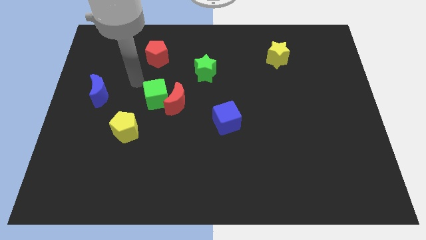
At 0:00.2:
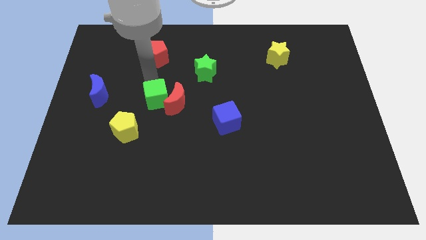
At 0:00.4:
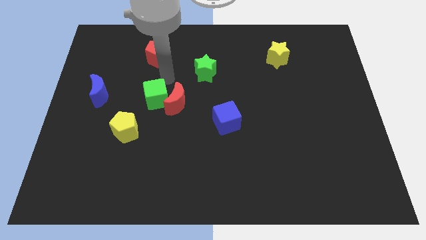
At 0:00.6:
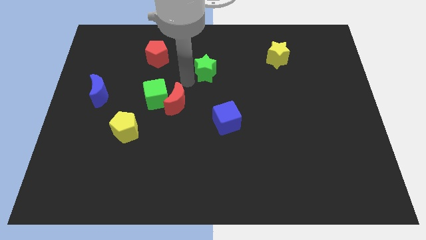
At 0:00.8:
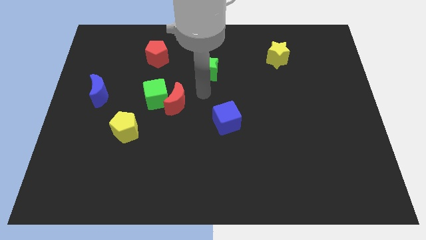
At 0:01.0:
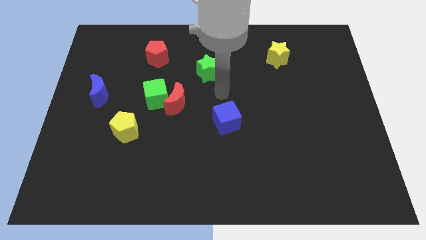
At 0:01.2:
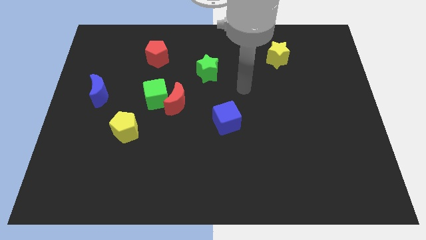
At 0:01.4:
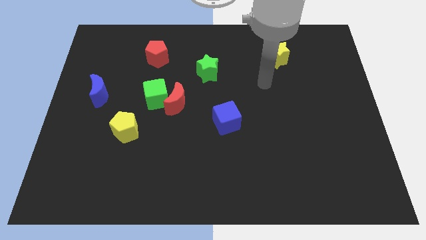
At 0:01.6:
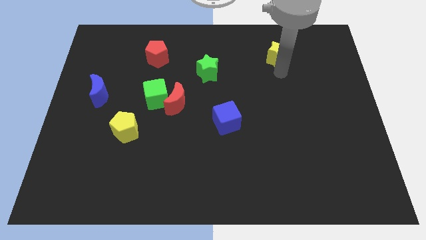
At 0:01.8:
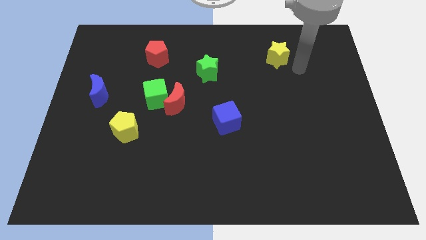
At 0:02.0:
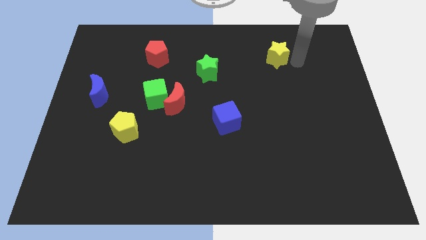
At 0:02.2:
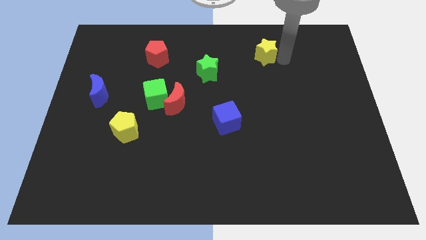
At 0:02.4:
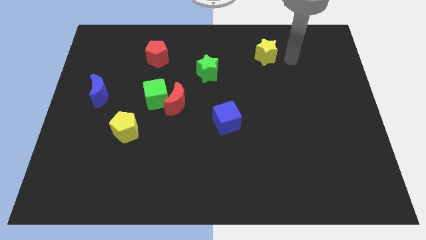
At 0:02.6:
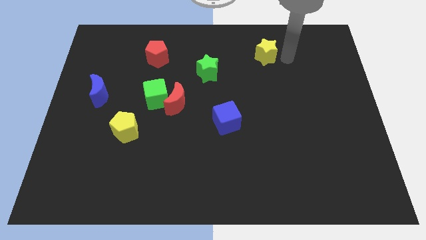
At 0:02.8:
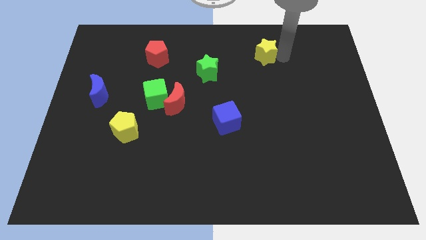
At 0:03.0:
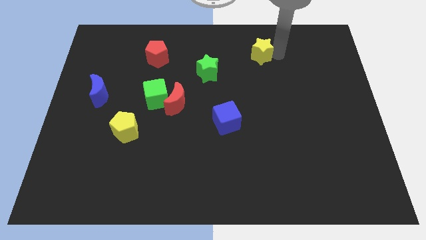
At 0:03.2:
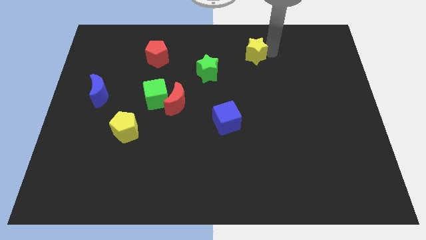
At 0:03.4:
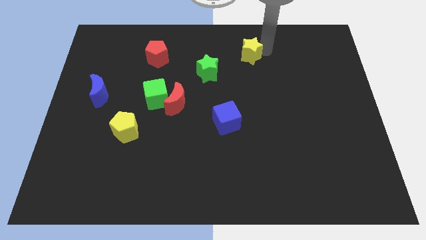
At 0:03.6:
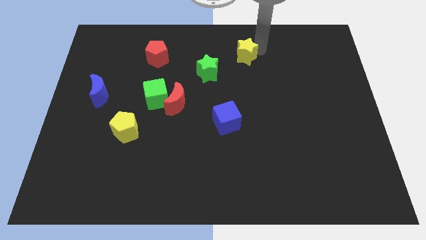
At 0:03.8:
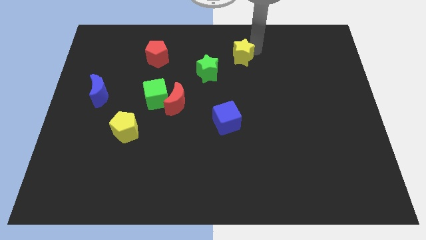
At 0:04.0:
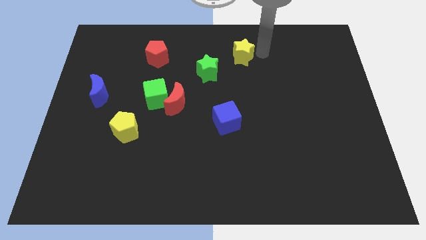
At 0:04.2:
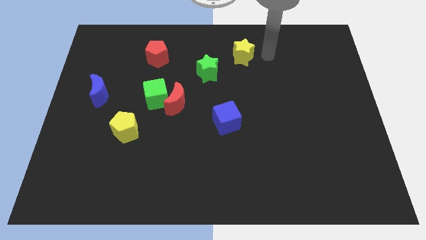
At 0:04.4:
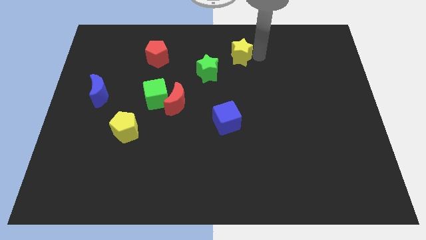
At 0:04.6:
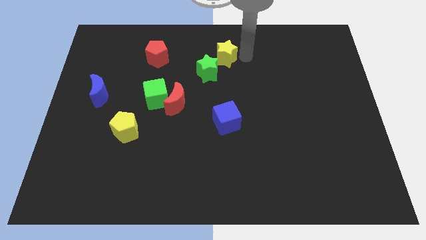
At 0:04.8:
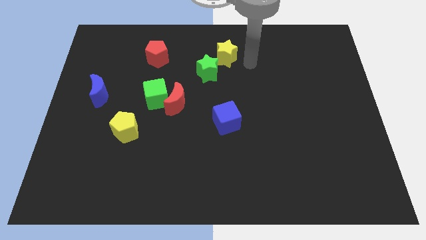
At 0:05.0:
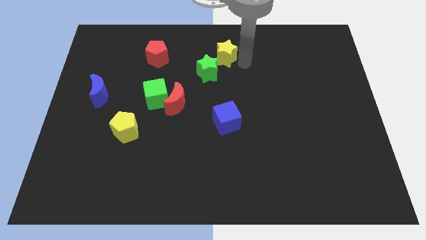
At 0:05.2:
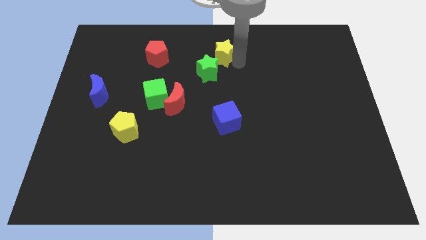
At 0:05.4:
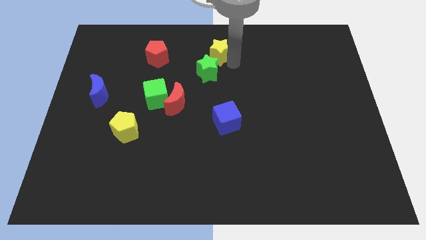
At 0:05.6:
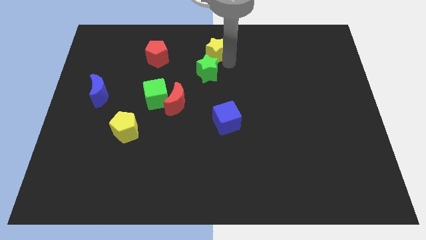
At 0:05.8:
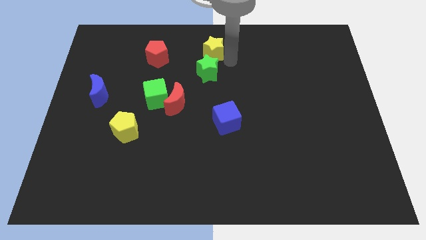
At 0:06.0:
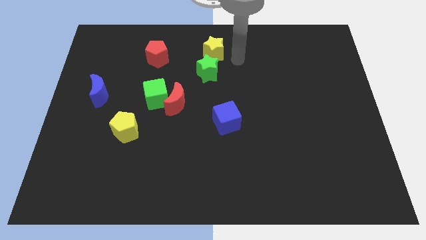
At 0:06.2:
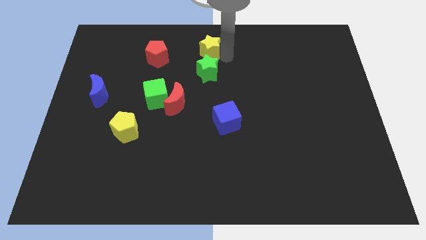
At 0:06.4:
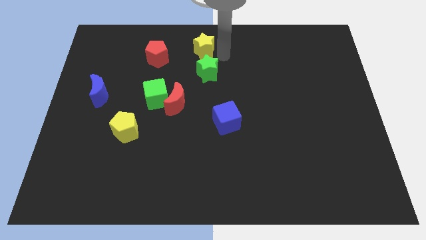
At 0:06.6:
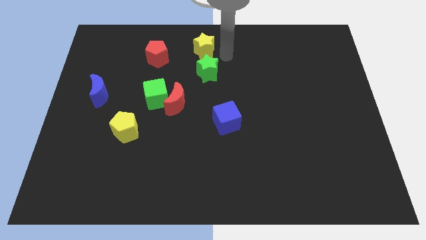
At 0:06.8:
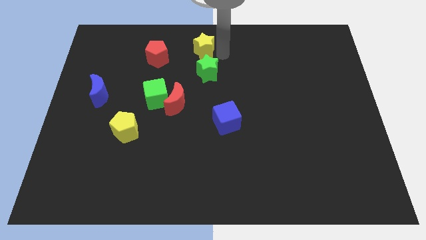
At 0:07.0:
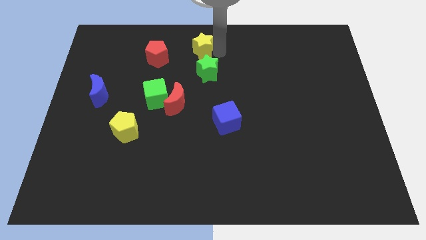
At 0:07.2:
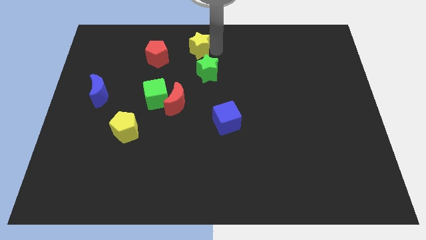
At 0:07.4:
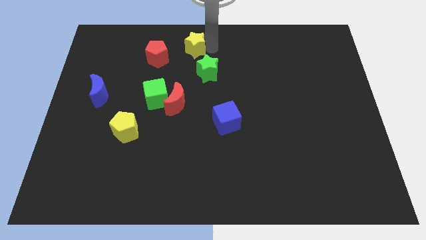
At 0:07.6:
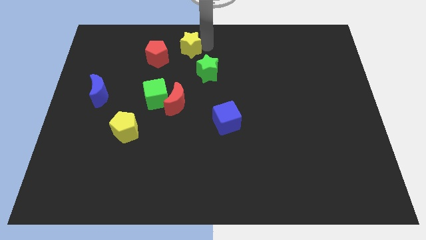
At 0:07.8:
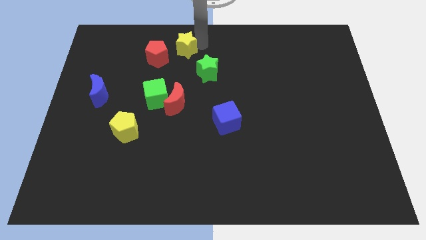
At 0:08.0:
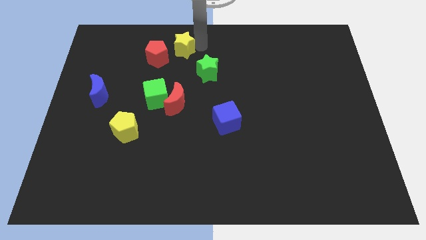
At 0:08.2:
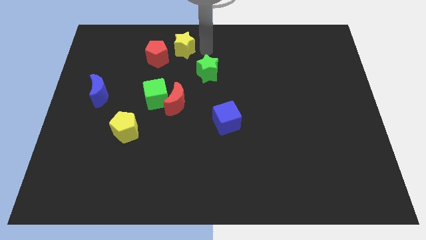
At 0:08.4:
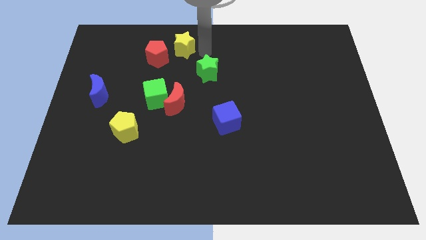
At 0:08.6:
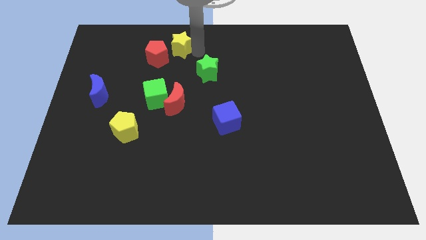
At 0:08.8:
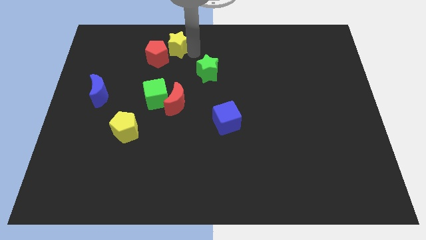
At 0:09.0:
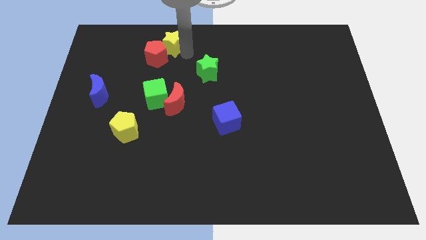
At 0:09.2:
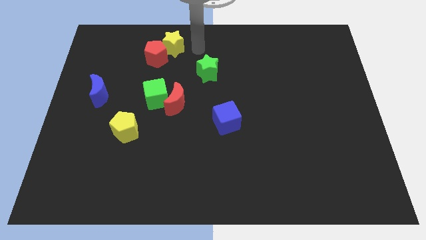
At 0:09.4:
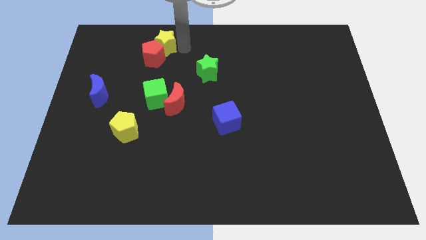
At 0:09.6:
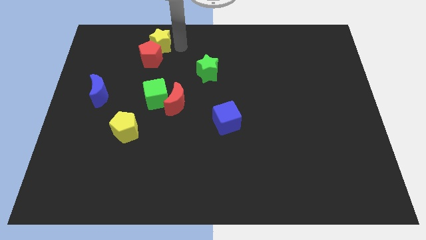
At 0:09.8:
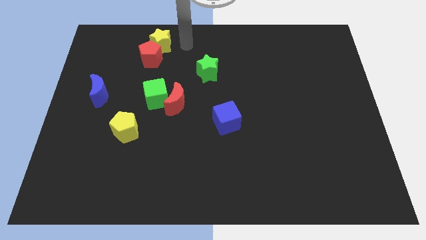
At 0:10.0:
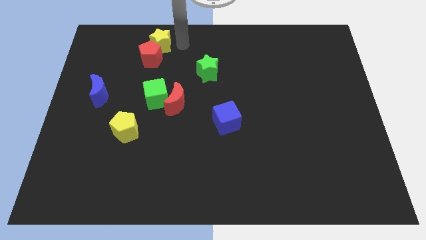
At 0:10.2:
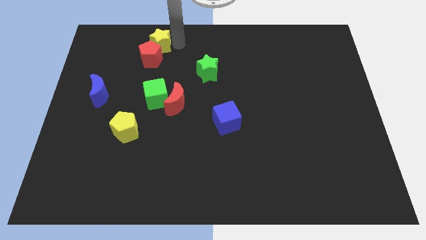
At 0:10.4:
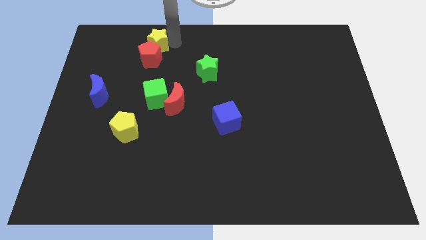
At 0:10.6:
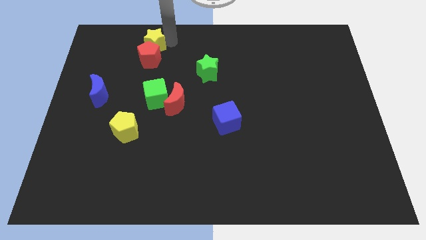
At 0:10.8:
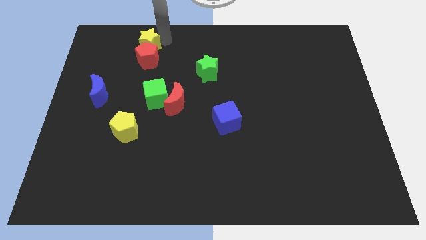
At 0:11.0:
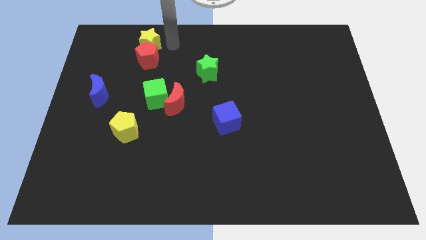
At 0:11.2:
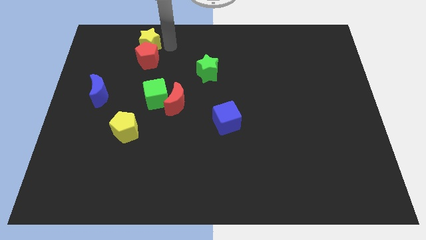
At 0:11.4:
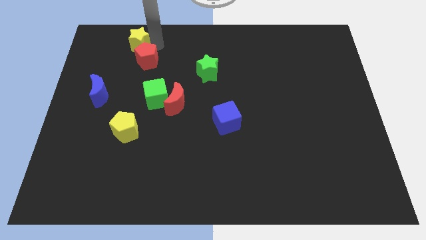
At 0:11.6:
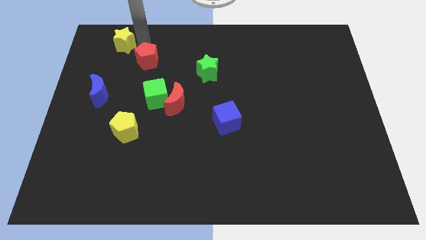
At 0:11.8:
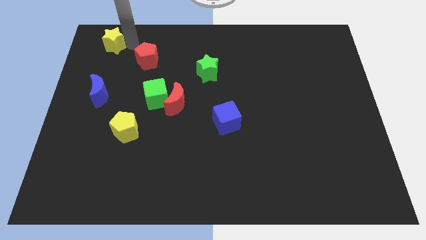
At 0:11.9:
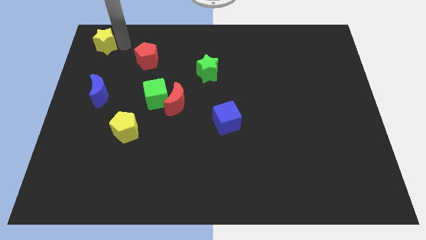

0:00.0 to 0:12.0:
push the yellow star to the upper left corner

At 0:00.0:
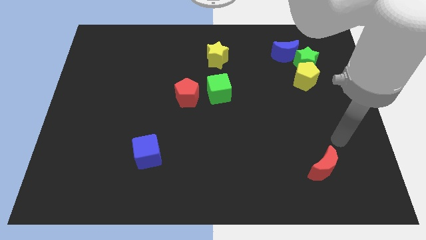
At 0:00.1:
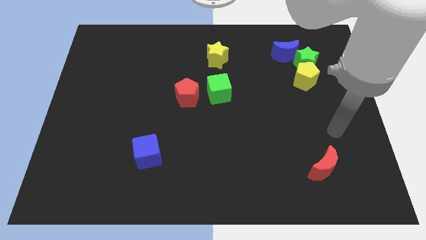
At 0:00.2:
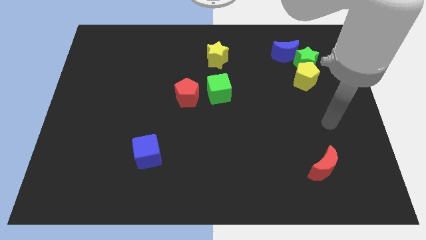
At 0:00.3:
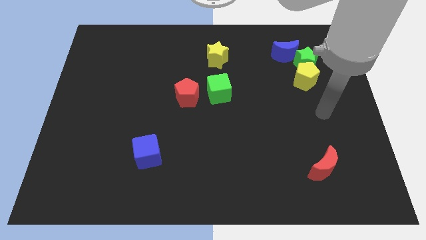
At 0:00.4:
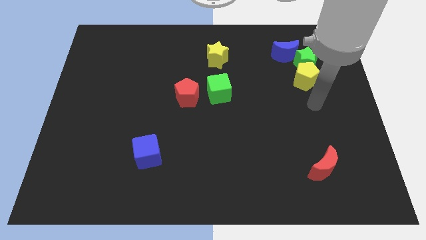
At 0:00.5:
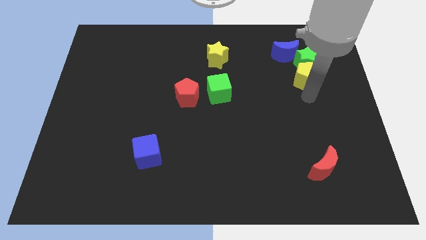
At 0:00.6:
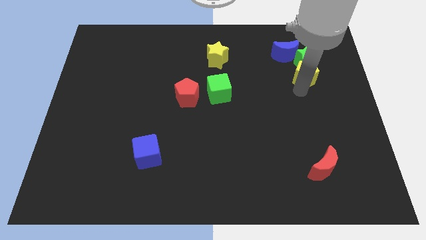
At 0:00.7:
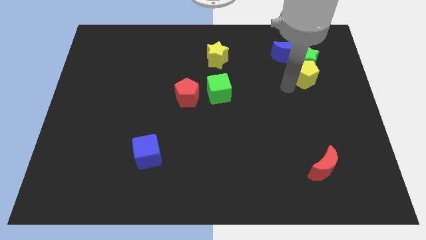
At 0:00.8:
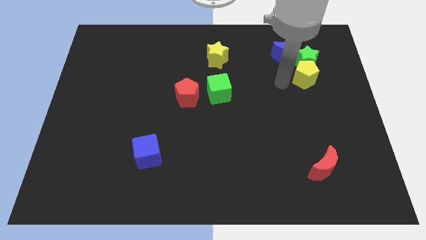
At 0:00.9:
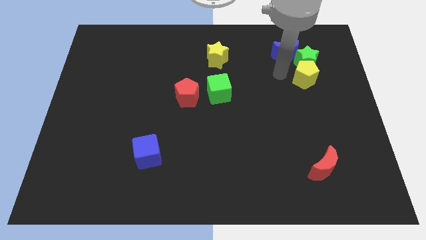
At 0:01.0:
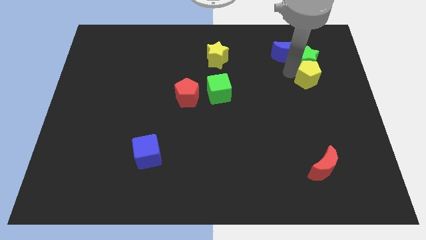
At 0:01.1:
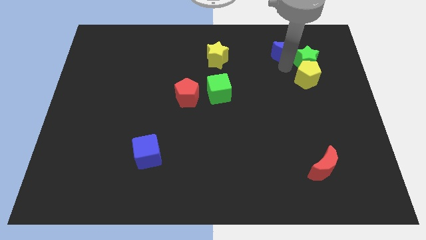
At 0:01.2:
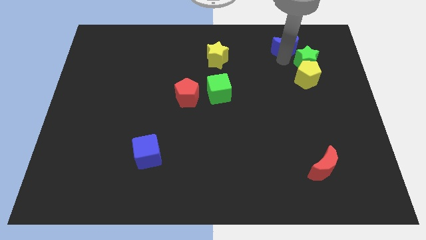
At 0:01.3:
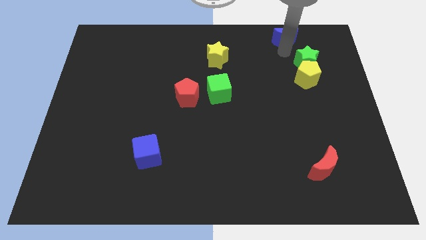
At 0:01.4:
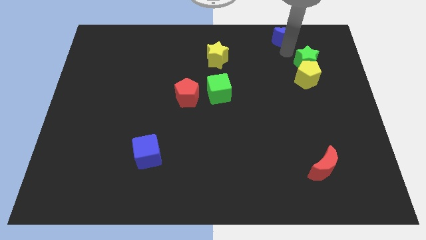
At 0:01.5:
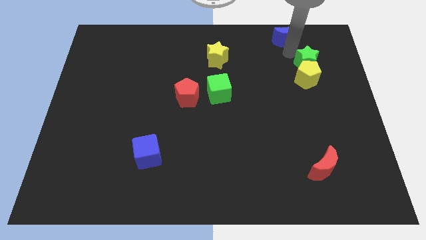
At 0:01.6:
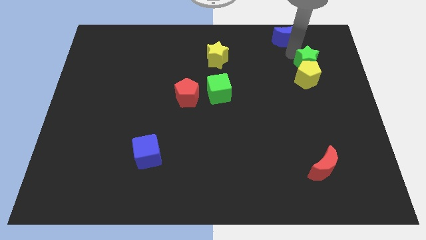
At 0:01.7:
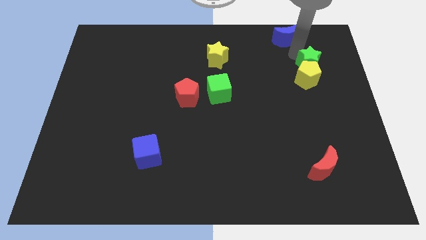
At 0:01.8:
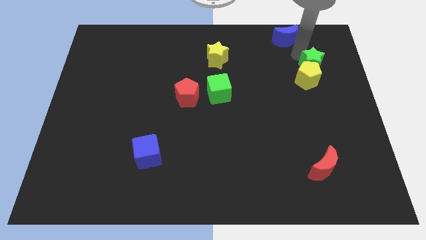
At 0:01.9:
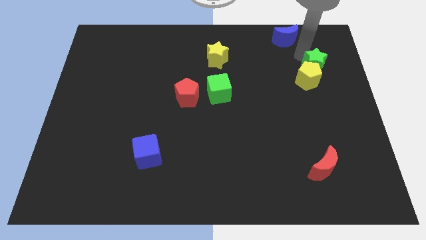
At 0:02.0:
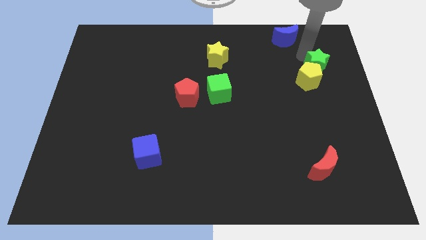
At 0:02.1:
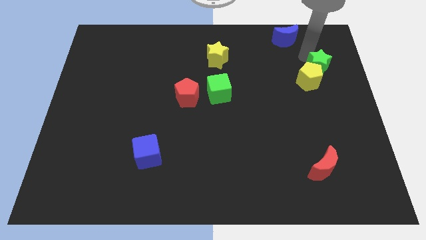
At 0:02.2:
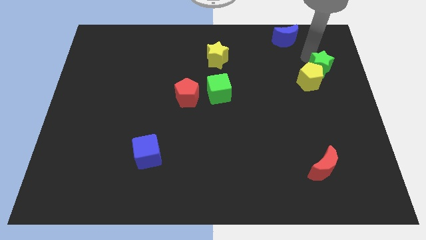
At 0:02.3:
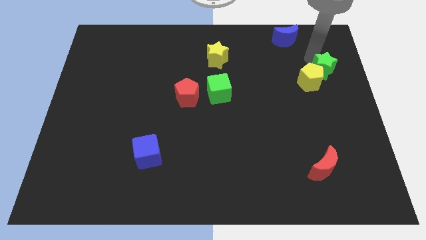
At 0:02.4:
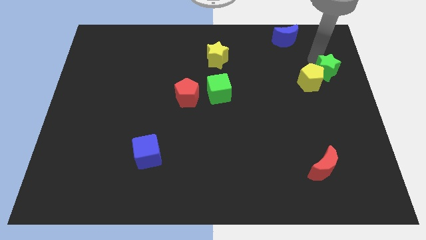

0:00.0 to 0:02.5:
push the green star to the right side of the board
